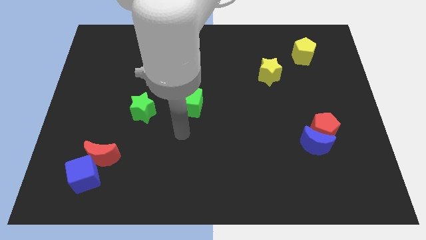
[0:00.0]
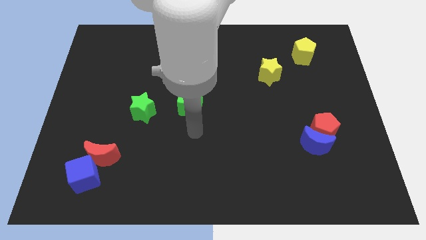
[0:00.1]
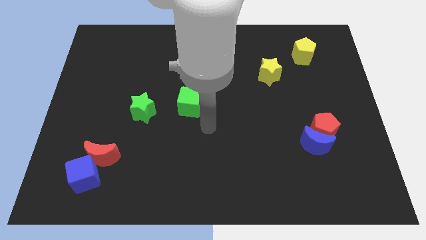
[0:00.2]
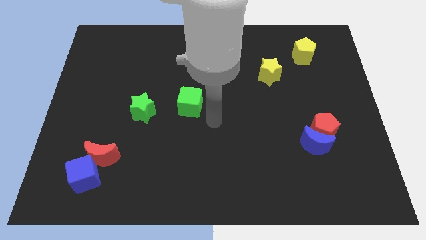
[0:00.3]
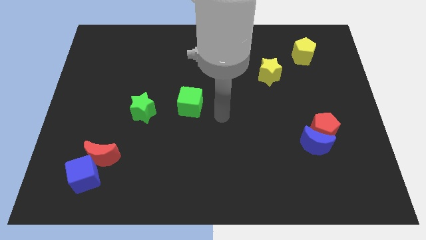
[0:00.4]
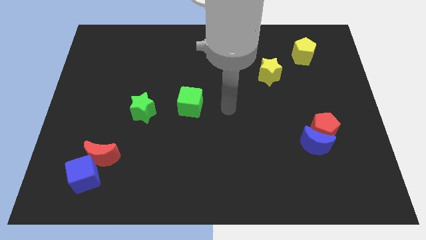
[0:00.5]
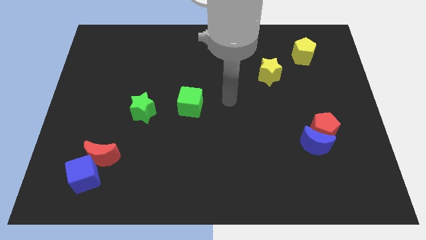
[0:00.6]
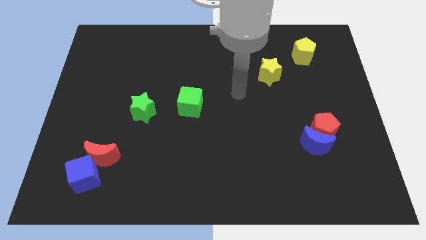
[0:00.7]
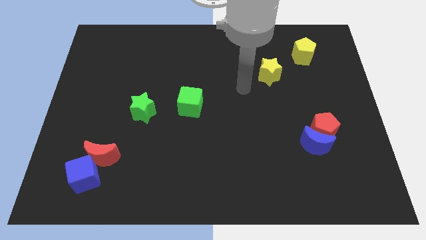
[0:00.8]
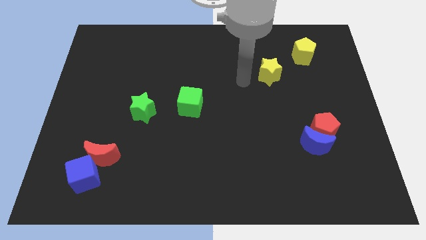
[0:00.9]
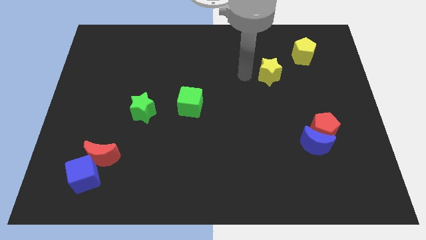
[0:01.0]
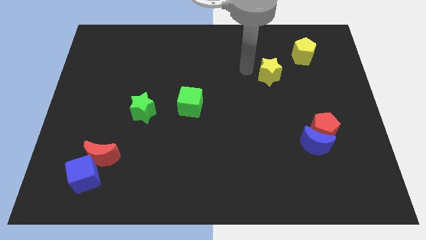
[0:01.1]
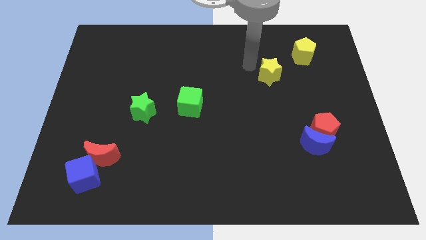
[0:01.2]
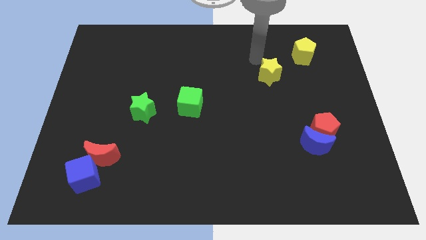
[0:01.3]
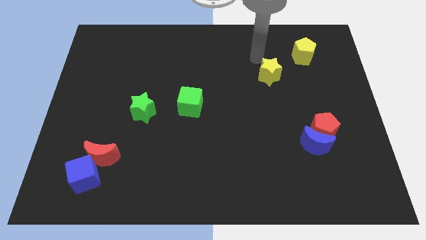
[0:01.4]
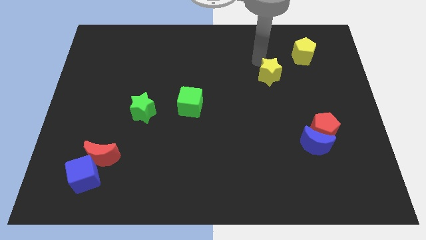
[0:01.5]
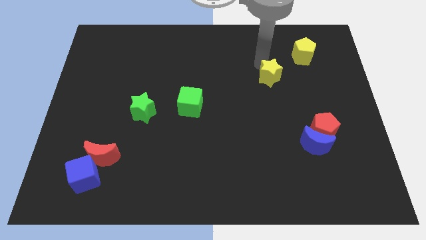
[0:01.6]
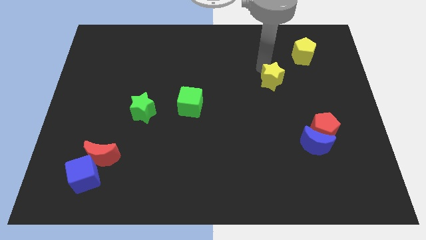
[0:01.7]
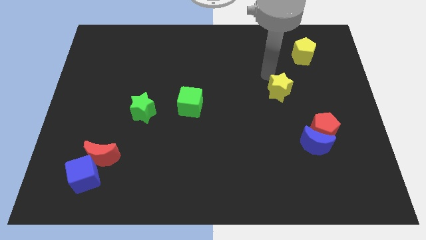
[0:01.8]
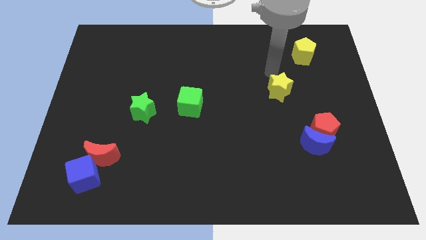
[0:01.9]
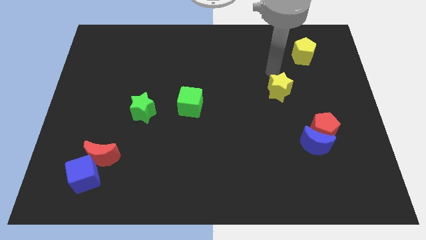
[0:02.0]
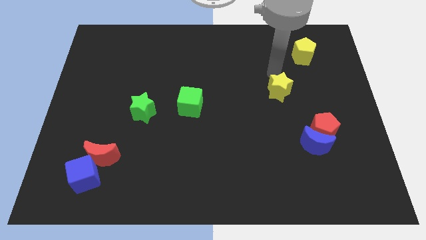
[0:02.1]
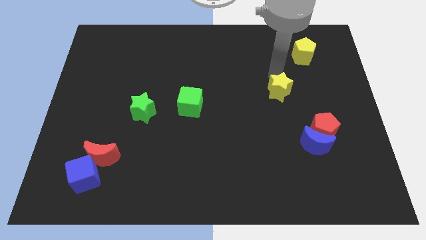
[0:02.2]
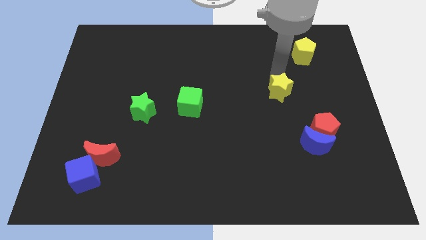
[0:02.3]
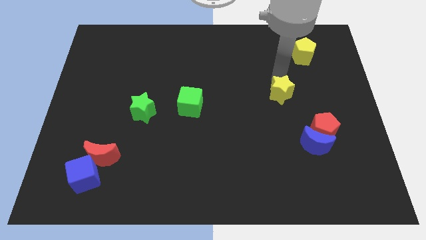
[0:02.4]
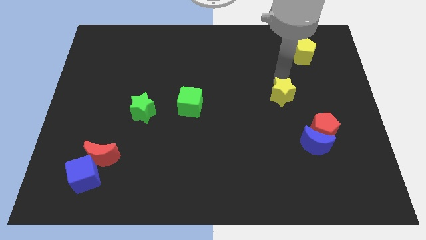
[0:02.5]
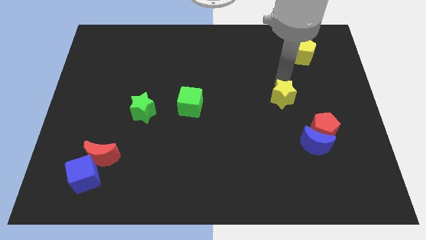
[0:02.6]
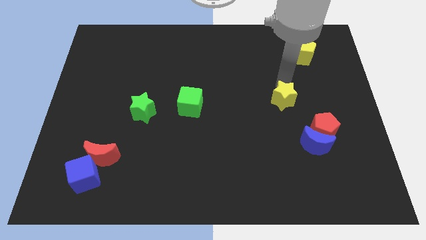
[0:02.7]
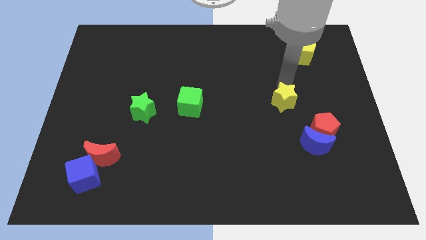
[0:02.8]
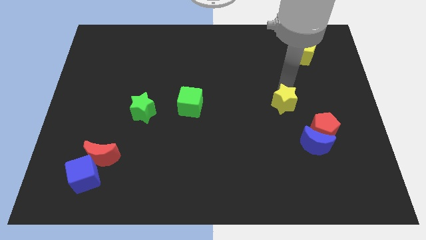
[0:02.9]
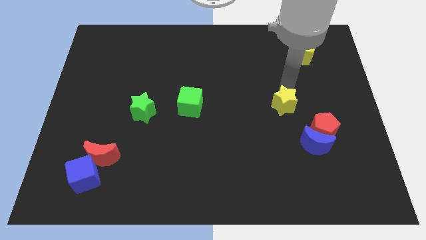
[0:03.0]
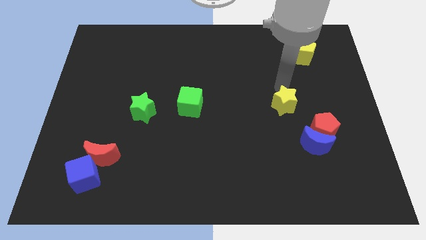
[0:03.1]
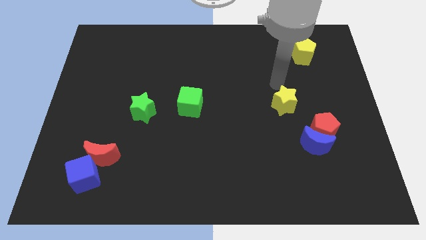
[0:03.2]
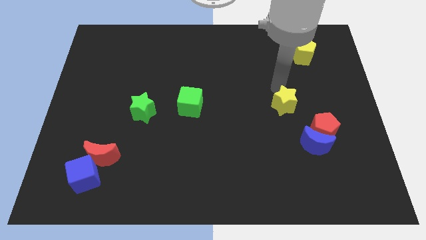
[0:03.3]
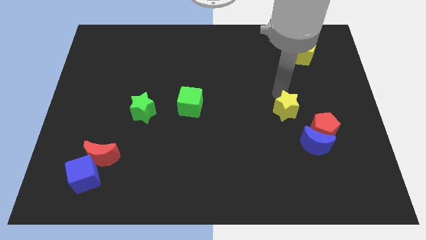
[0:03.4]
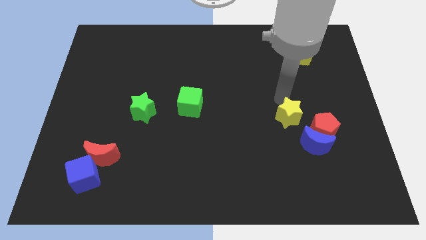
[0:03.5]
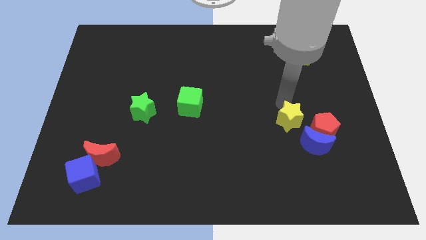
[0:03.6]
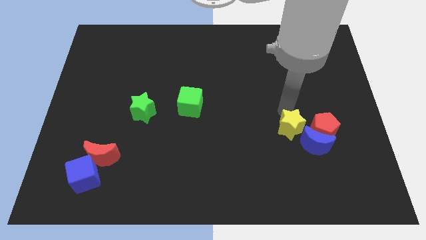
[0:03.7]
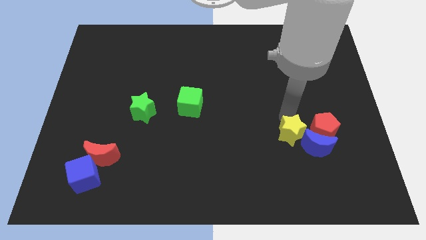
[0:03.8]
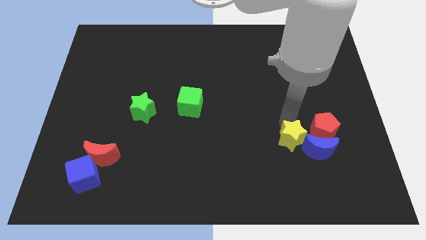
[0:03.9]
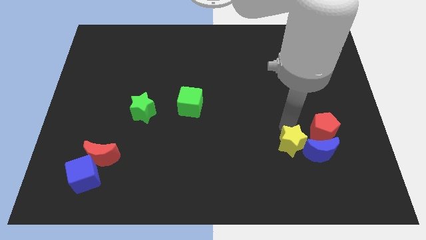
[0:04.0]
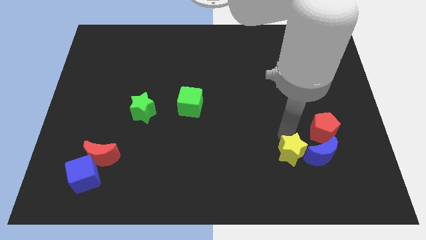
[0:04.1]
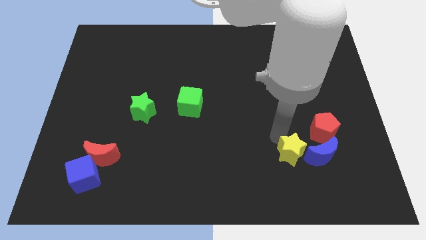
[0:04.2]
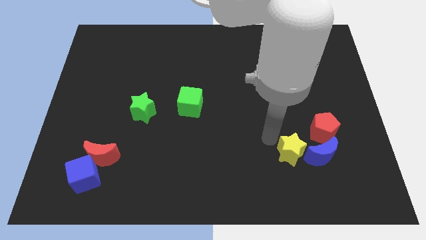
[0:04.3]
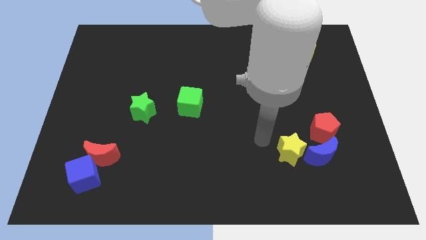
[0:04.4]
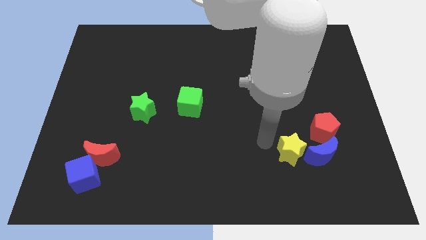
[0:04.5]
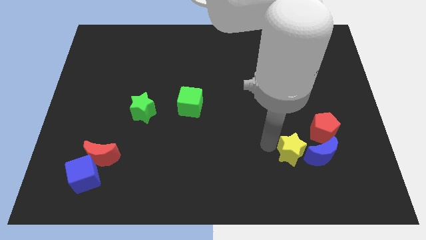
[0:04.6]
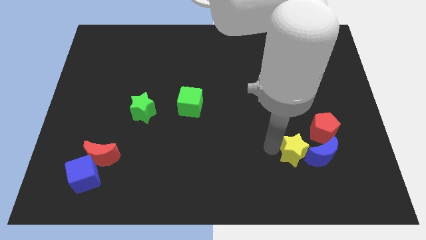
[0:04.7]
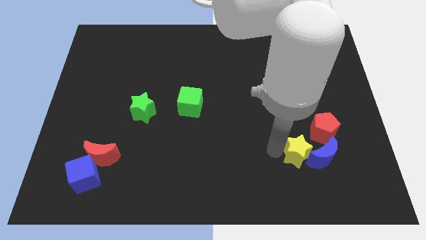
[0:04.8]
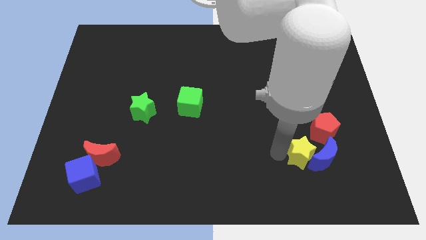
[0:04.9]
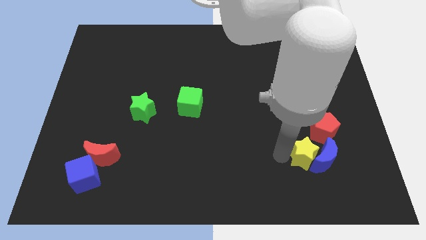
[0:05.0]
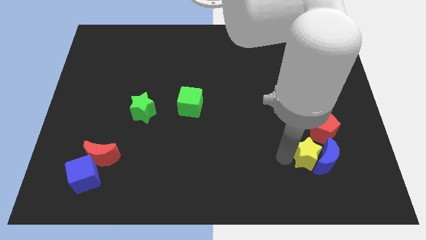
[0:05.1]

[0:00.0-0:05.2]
push the yellow star below the red pentagon

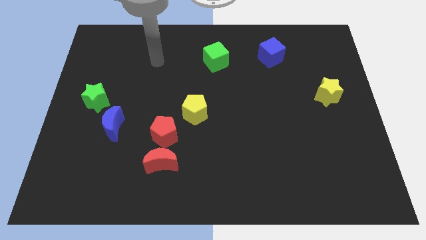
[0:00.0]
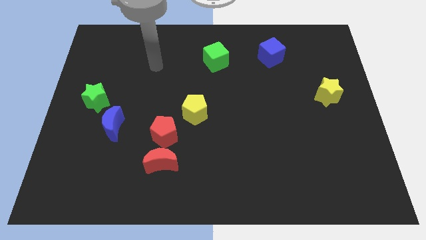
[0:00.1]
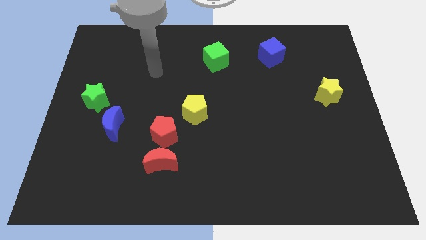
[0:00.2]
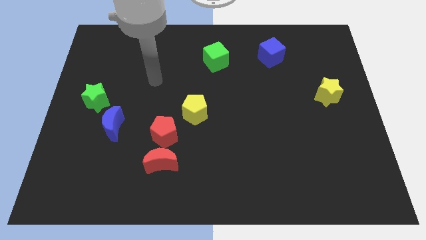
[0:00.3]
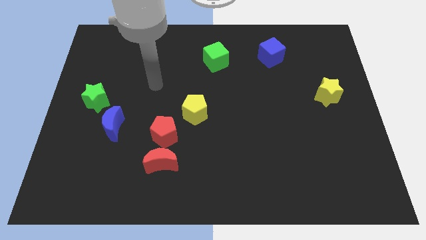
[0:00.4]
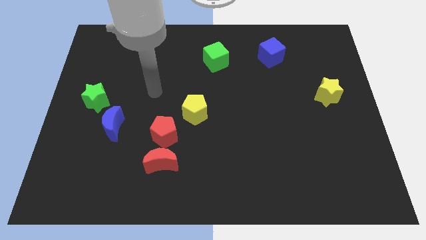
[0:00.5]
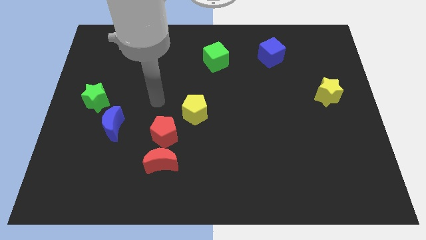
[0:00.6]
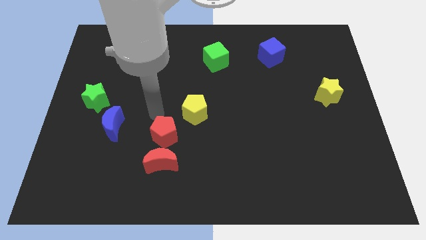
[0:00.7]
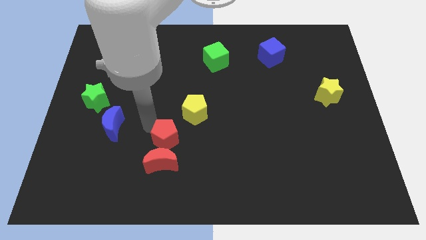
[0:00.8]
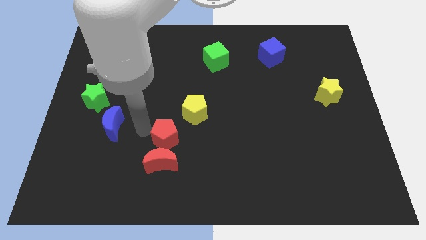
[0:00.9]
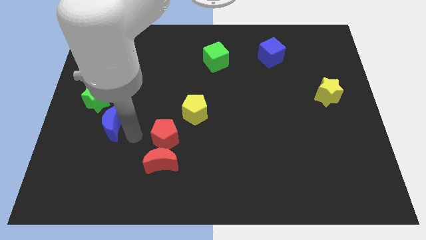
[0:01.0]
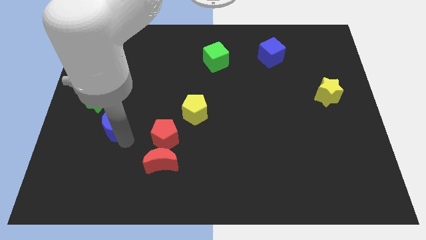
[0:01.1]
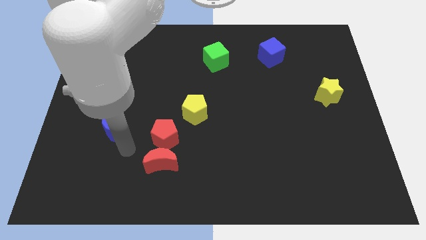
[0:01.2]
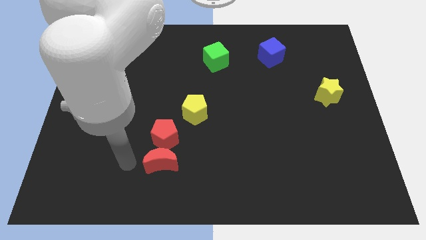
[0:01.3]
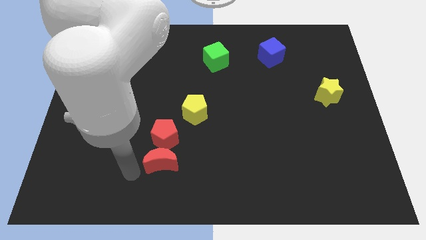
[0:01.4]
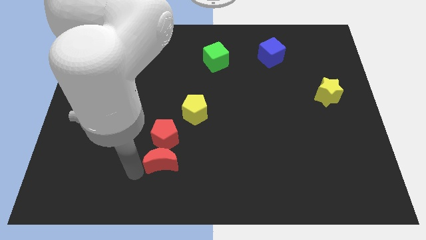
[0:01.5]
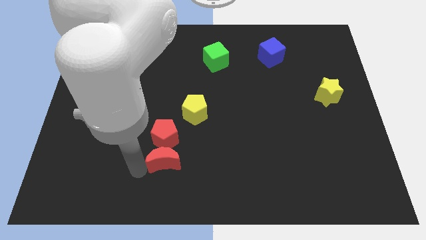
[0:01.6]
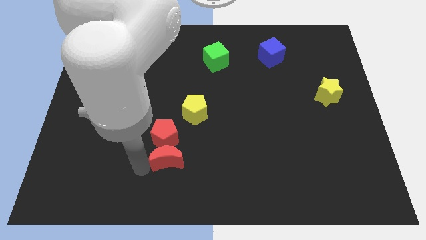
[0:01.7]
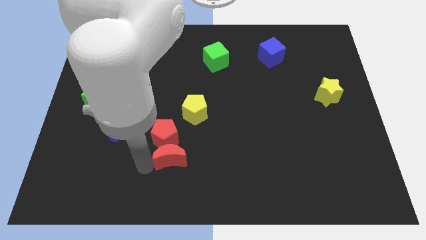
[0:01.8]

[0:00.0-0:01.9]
slide the red moon to the bottom side of the yellow pentagon
